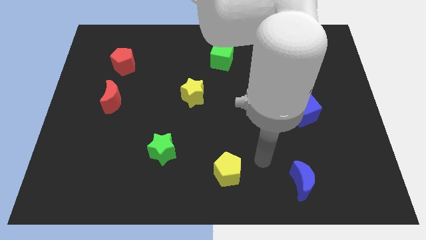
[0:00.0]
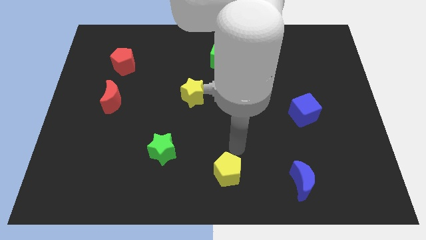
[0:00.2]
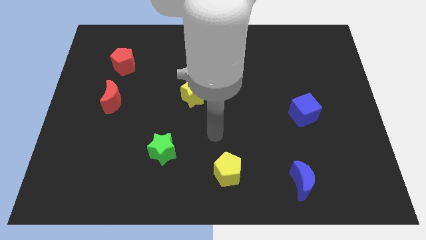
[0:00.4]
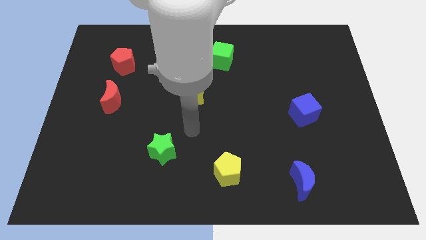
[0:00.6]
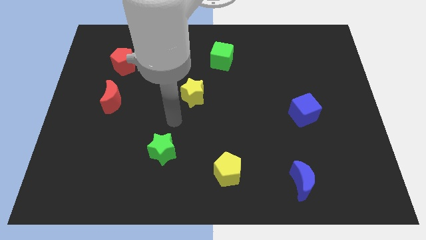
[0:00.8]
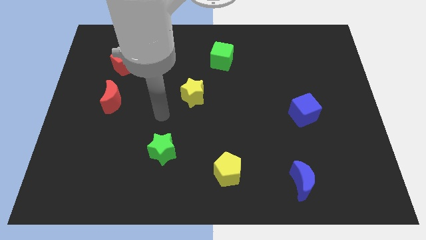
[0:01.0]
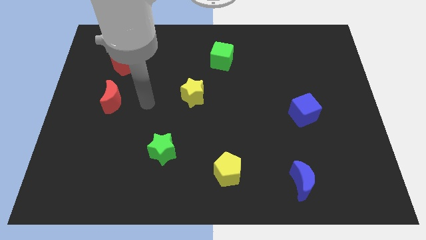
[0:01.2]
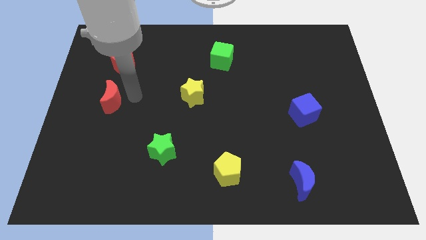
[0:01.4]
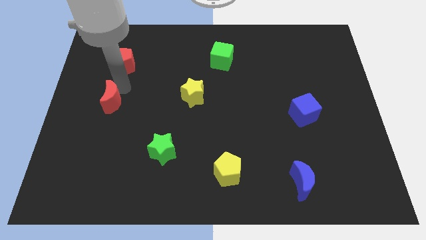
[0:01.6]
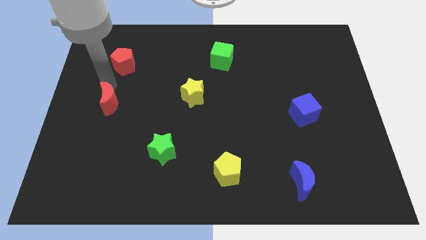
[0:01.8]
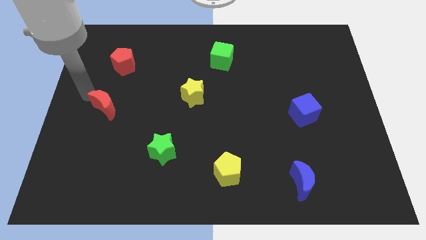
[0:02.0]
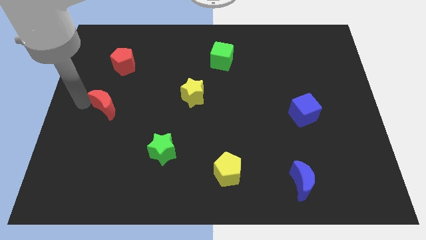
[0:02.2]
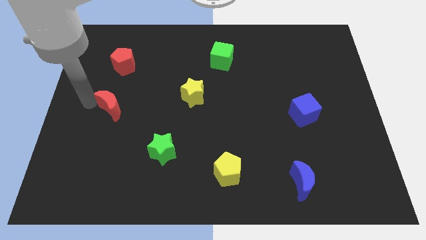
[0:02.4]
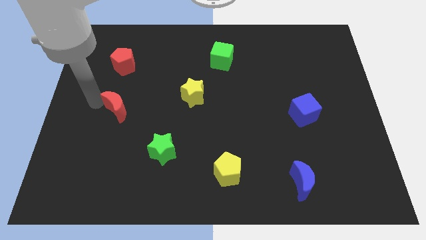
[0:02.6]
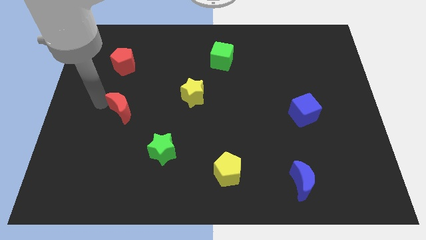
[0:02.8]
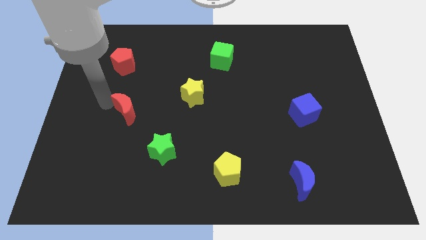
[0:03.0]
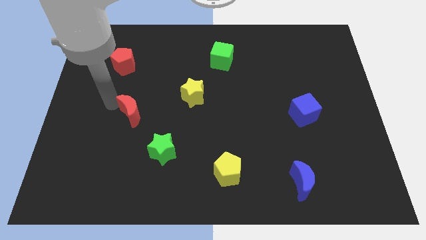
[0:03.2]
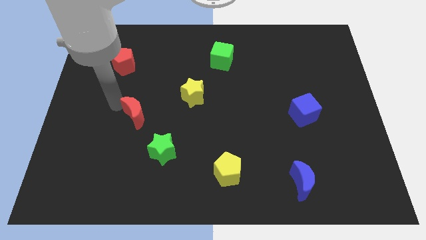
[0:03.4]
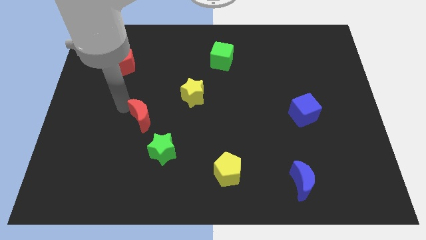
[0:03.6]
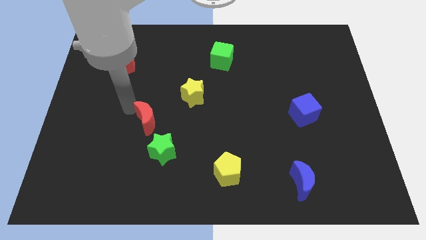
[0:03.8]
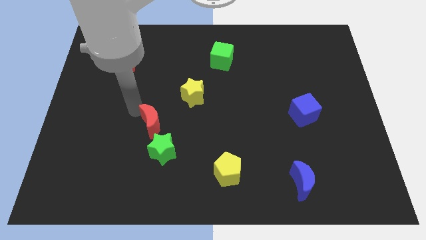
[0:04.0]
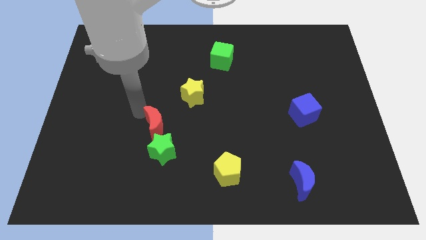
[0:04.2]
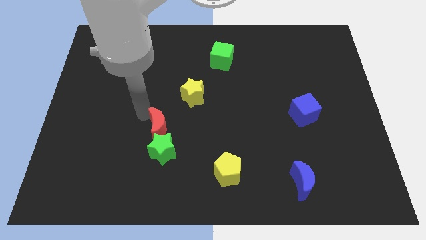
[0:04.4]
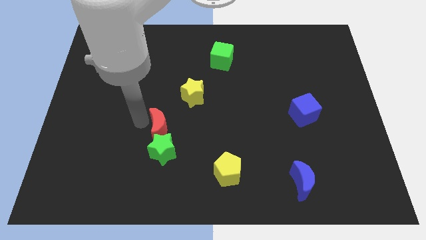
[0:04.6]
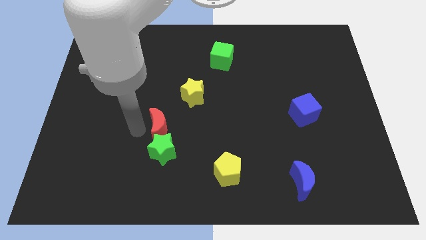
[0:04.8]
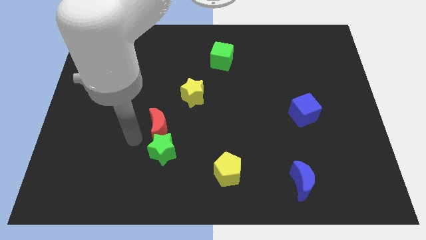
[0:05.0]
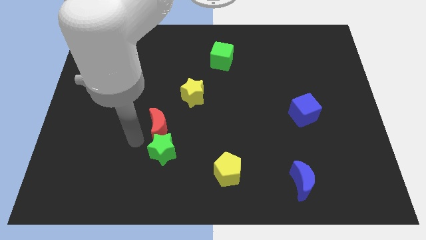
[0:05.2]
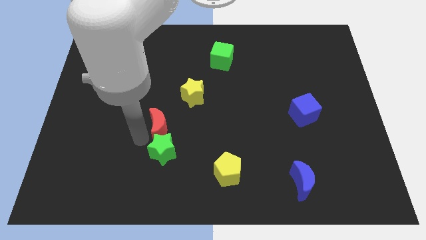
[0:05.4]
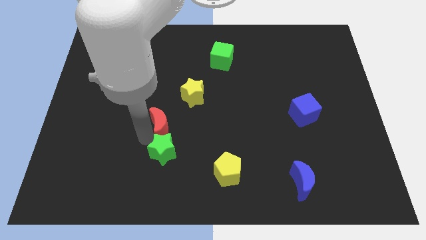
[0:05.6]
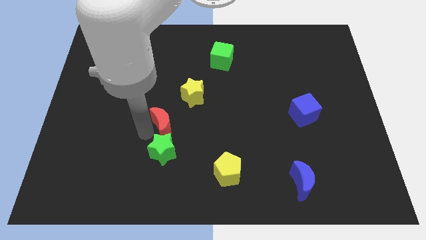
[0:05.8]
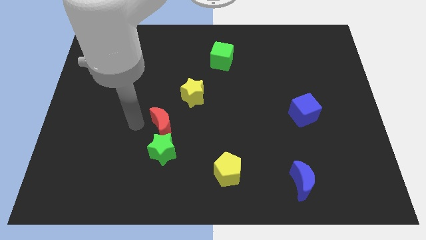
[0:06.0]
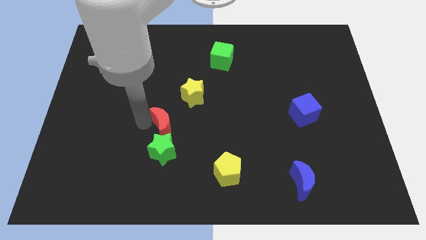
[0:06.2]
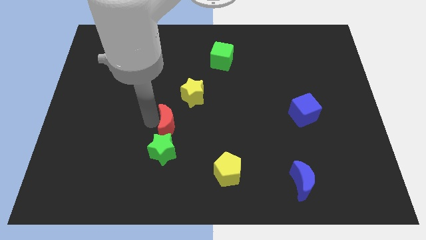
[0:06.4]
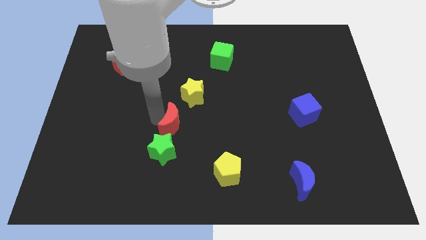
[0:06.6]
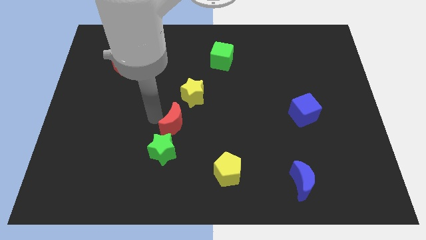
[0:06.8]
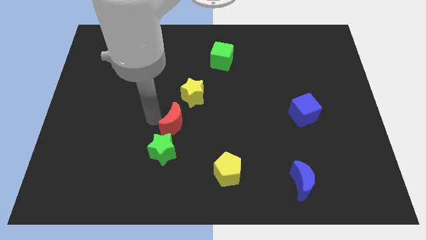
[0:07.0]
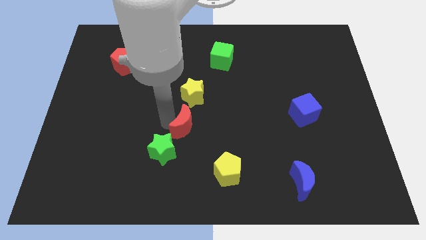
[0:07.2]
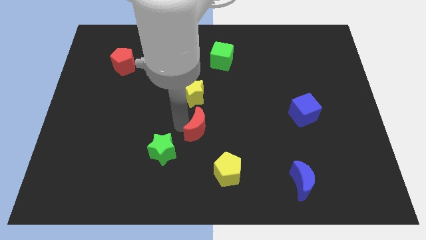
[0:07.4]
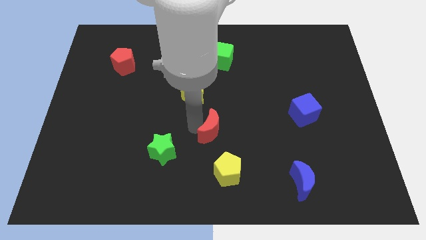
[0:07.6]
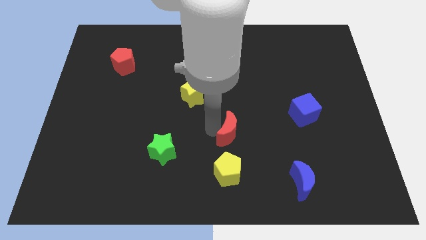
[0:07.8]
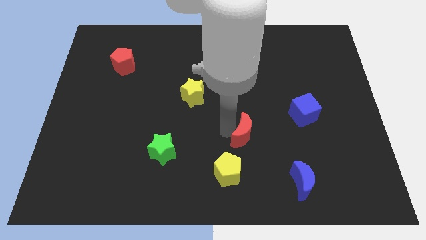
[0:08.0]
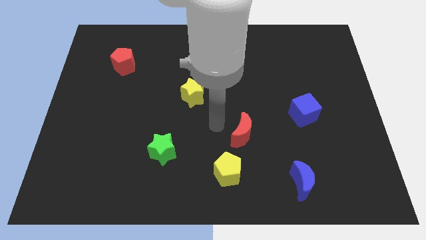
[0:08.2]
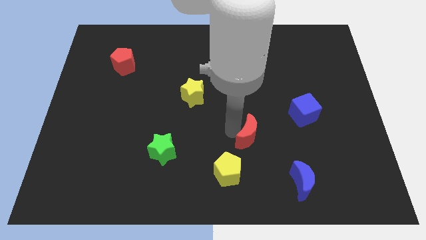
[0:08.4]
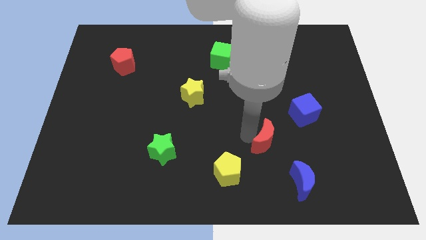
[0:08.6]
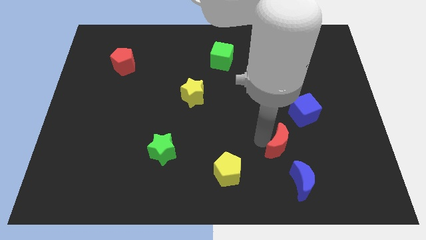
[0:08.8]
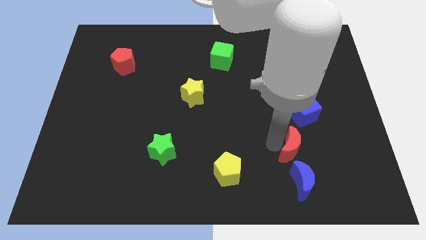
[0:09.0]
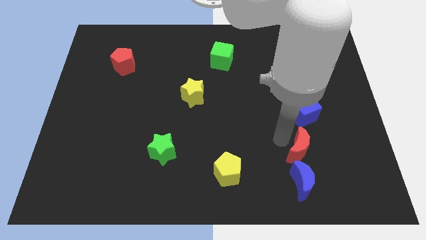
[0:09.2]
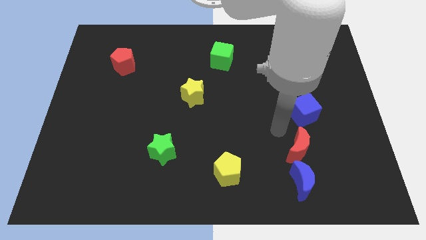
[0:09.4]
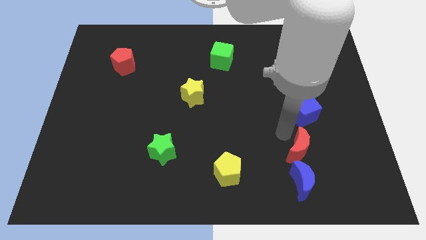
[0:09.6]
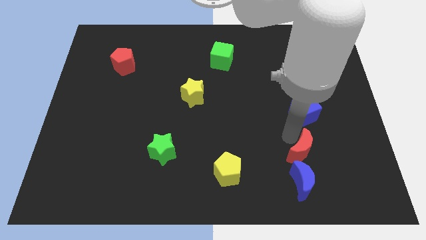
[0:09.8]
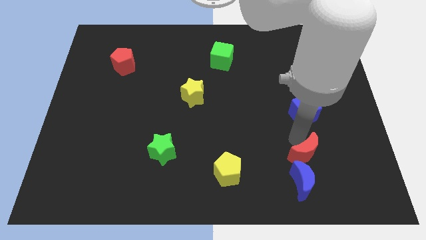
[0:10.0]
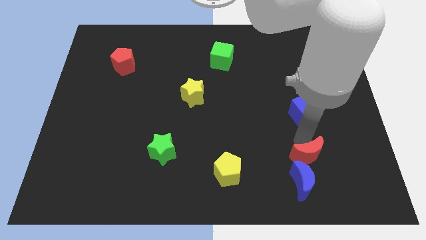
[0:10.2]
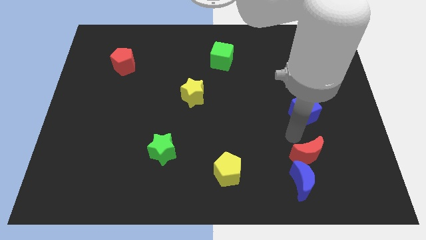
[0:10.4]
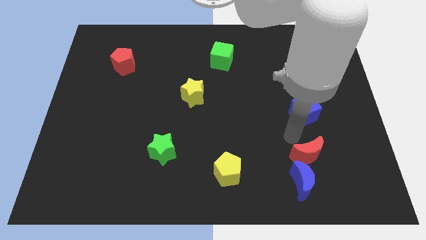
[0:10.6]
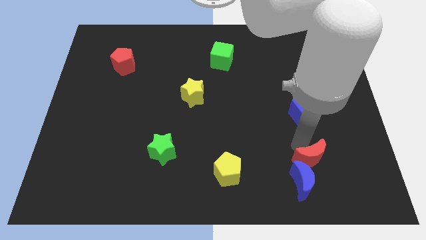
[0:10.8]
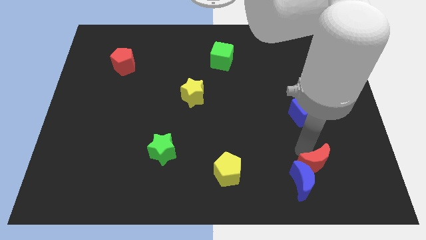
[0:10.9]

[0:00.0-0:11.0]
slide the red moon right of the blue moon

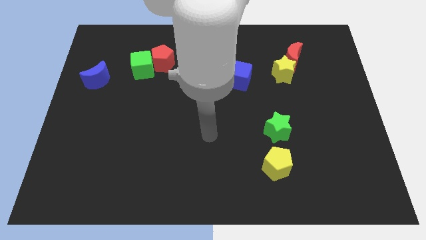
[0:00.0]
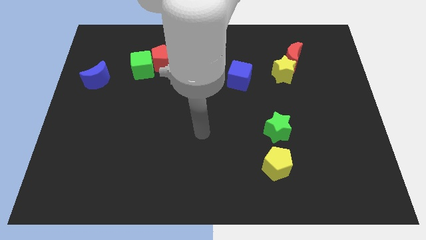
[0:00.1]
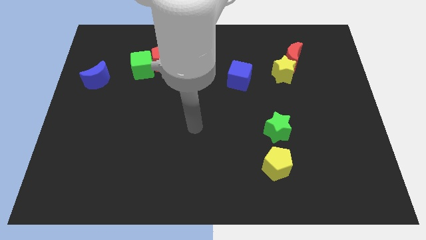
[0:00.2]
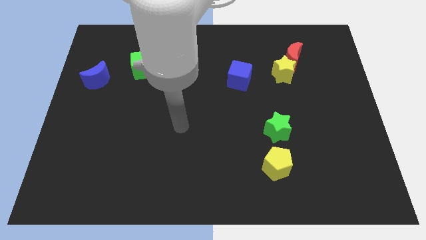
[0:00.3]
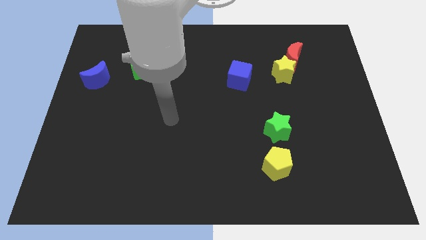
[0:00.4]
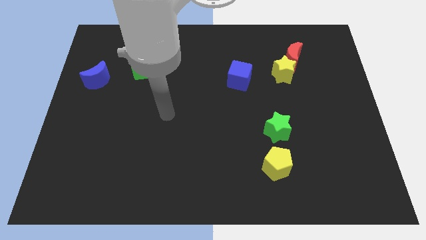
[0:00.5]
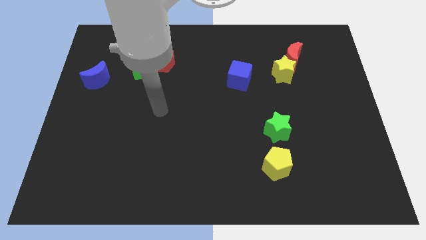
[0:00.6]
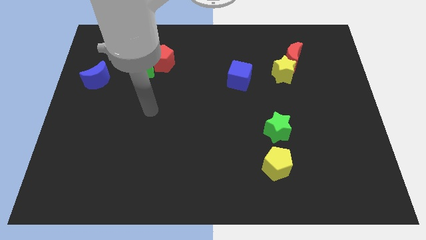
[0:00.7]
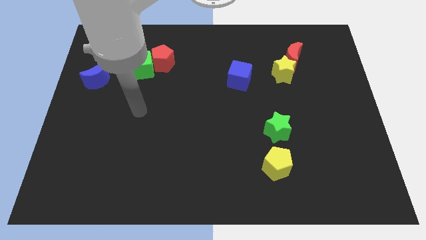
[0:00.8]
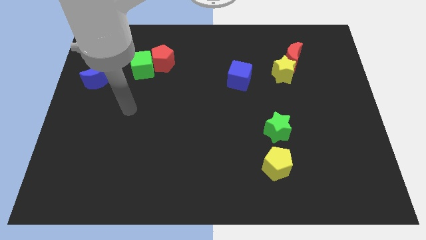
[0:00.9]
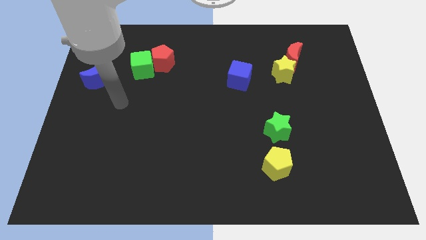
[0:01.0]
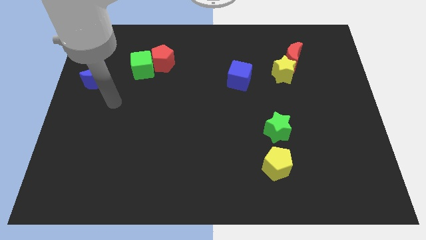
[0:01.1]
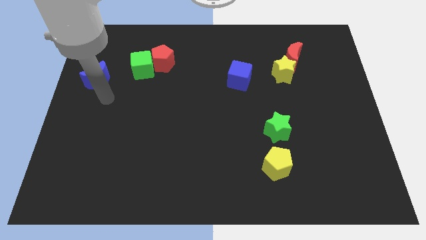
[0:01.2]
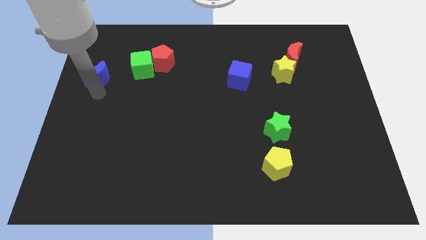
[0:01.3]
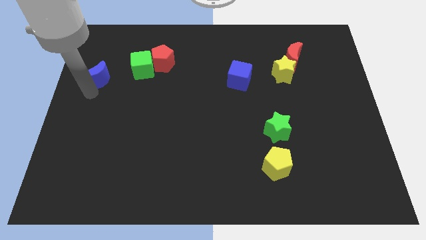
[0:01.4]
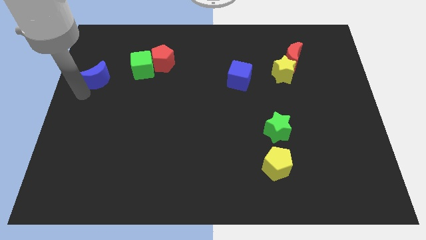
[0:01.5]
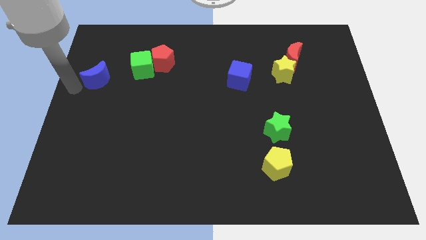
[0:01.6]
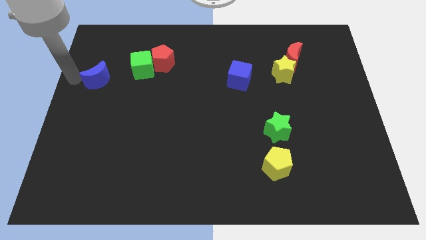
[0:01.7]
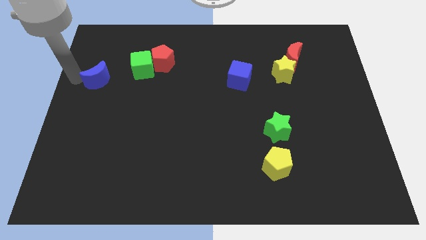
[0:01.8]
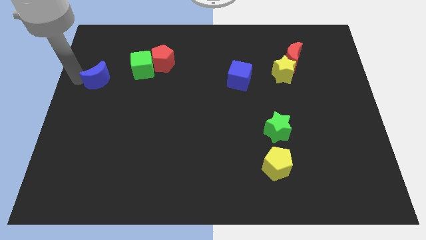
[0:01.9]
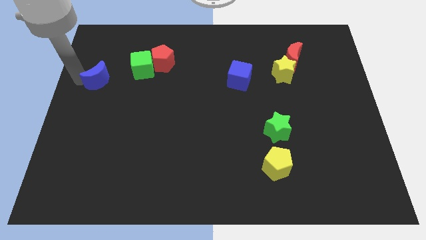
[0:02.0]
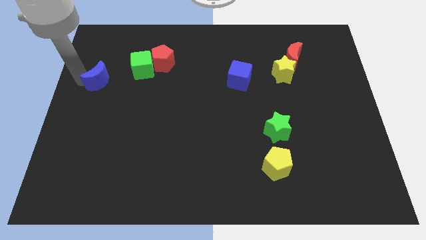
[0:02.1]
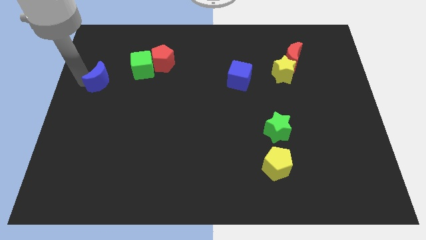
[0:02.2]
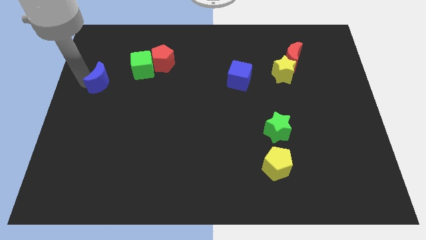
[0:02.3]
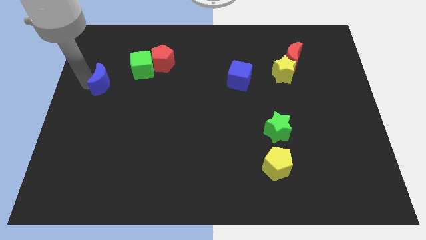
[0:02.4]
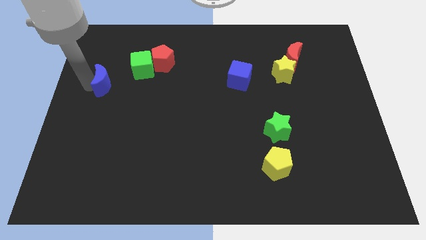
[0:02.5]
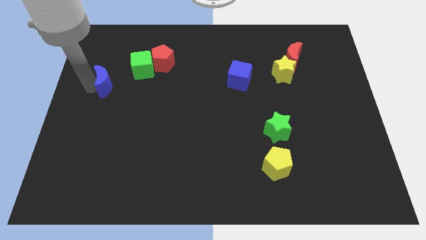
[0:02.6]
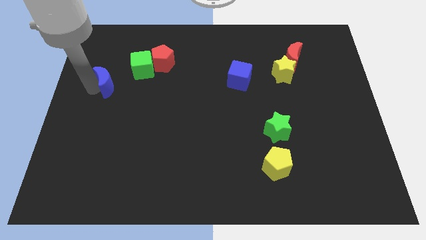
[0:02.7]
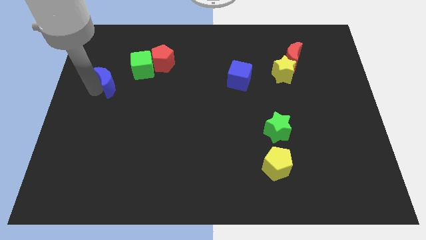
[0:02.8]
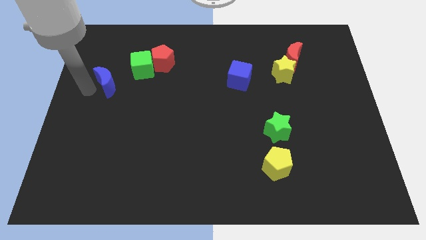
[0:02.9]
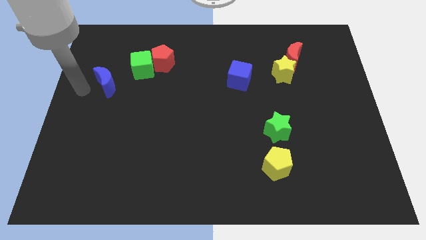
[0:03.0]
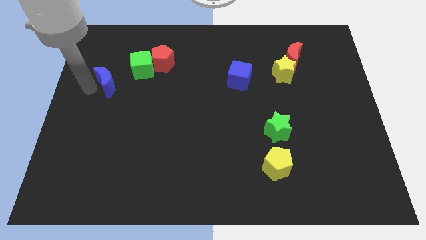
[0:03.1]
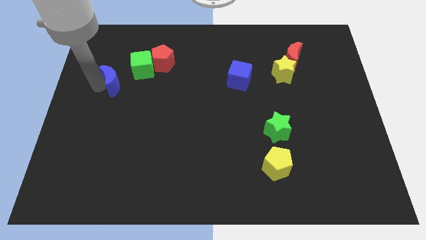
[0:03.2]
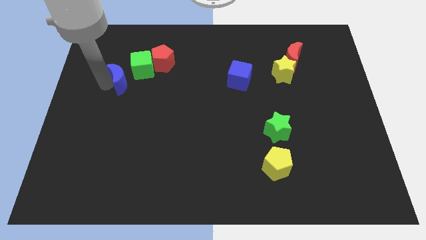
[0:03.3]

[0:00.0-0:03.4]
slide the blue moon to the bottom left side of the red pentagon
